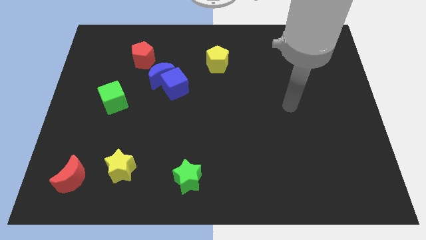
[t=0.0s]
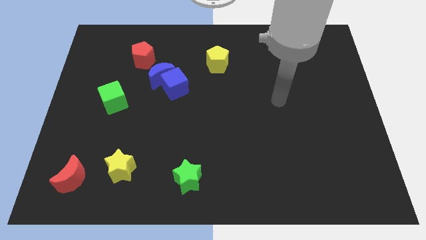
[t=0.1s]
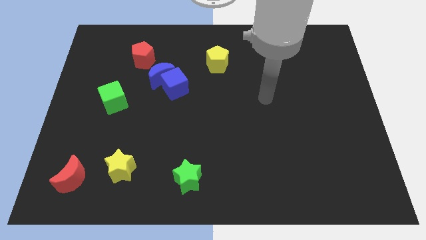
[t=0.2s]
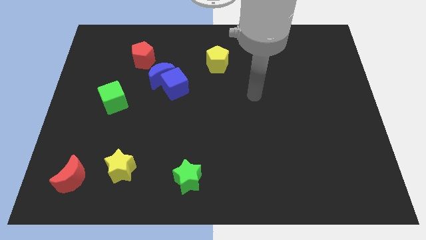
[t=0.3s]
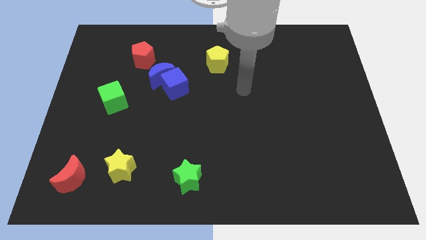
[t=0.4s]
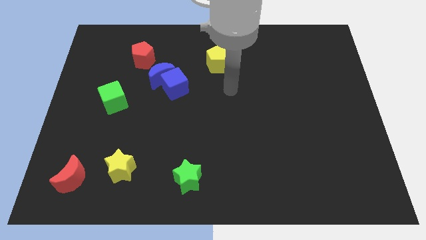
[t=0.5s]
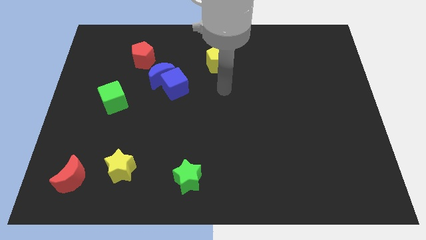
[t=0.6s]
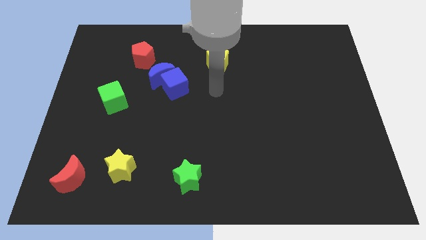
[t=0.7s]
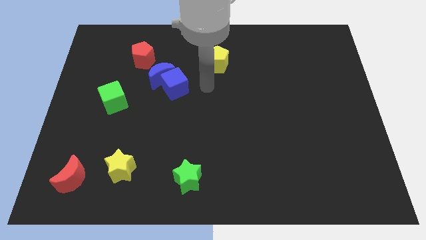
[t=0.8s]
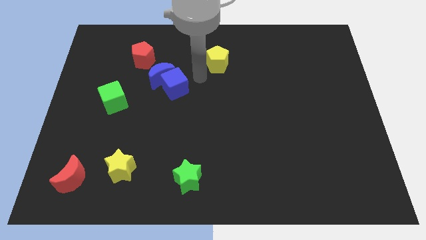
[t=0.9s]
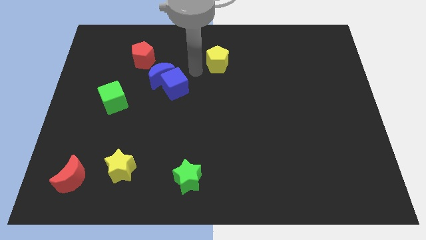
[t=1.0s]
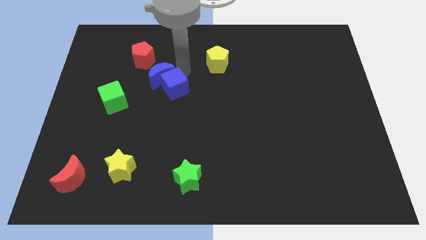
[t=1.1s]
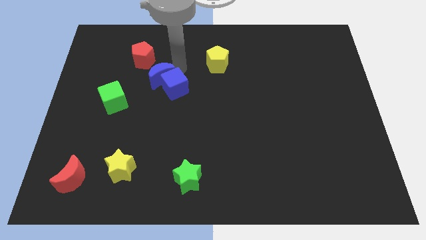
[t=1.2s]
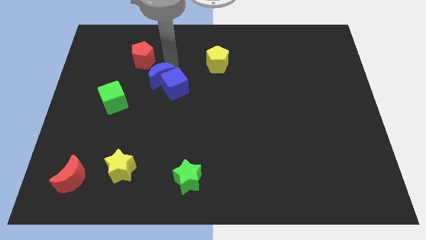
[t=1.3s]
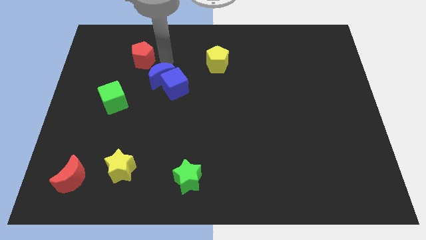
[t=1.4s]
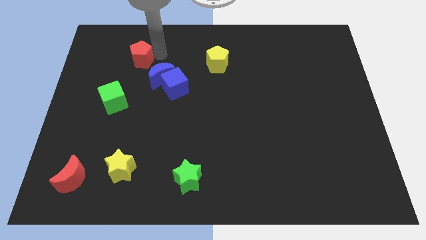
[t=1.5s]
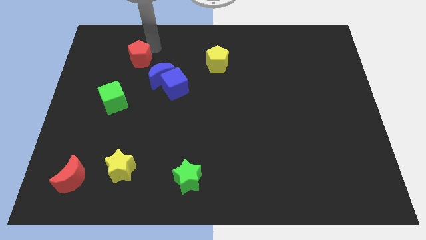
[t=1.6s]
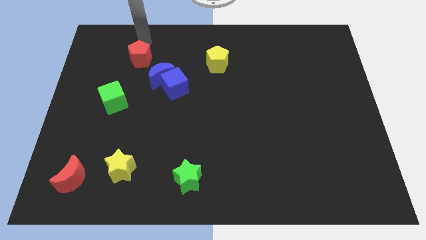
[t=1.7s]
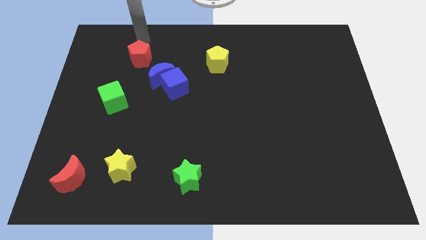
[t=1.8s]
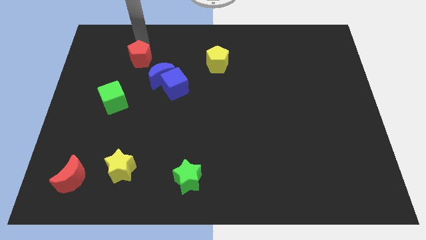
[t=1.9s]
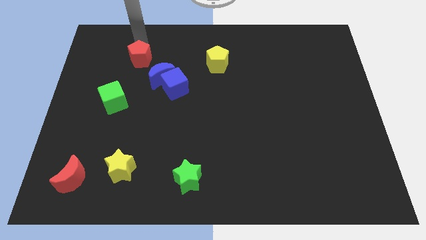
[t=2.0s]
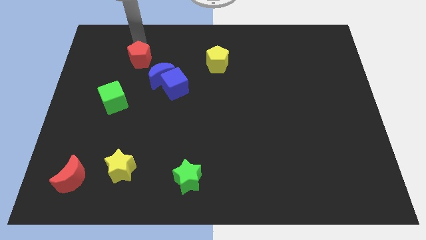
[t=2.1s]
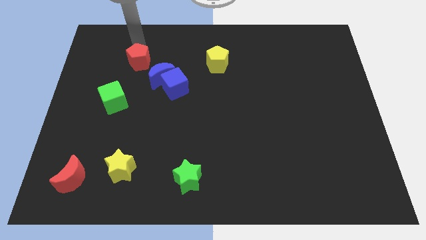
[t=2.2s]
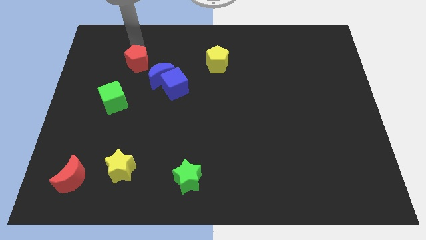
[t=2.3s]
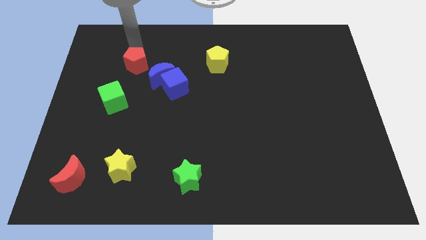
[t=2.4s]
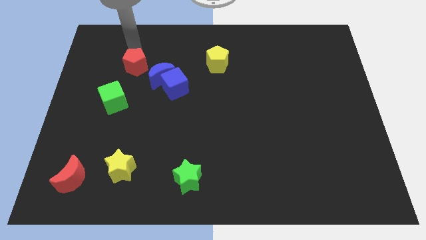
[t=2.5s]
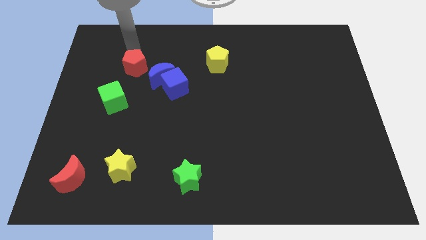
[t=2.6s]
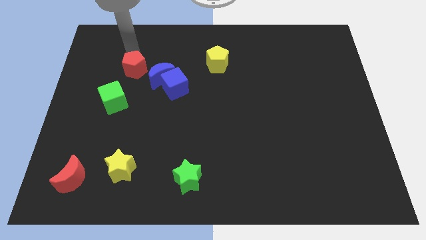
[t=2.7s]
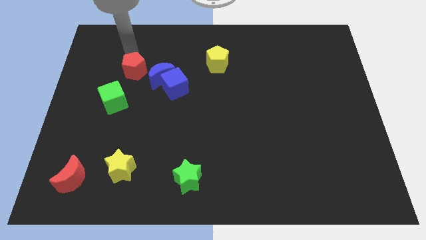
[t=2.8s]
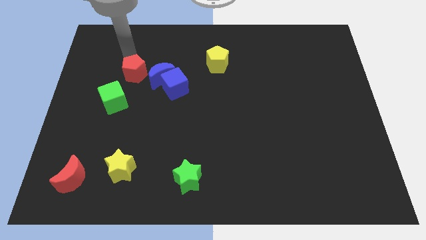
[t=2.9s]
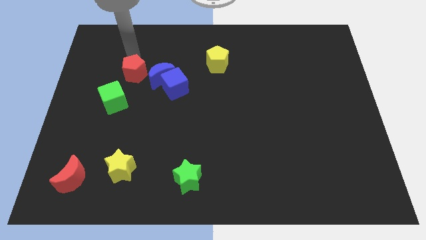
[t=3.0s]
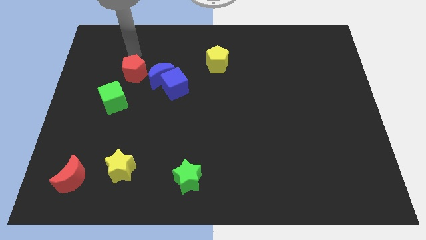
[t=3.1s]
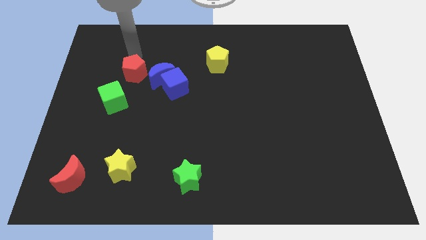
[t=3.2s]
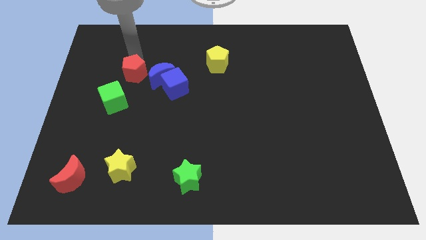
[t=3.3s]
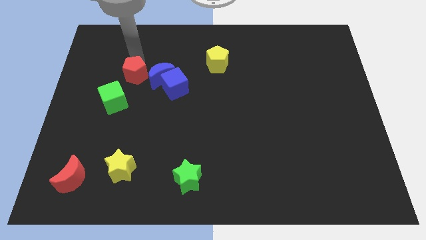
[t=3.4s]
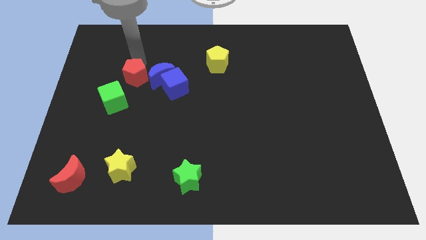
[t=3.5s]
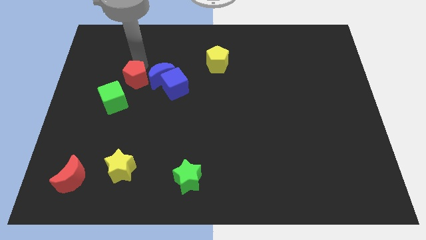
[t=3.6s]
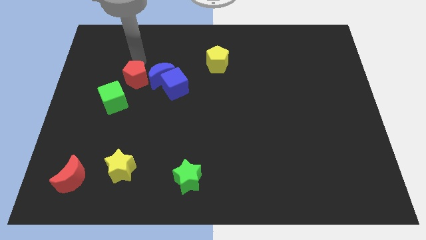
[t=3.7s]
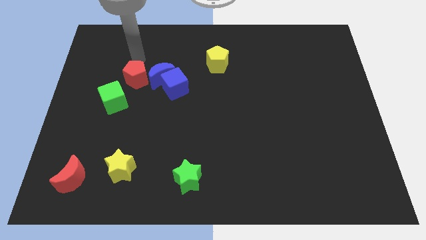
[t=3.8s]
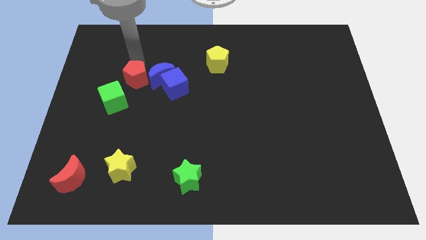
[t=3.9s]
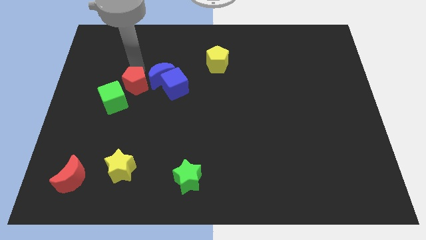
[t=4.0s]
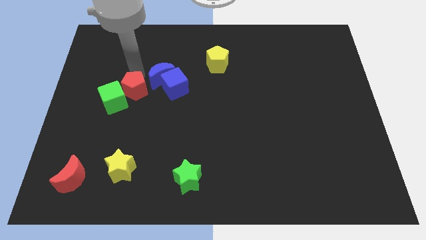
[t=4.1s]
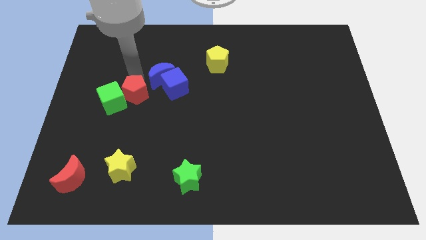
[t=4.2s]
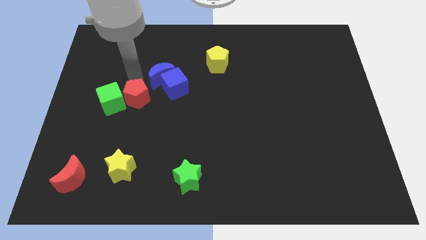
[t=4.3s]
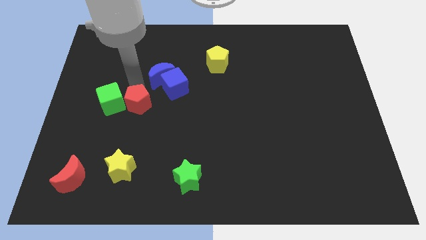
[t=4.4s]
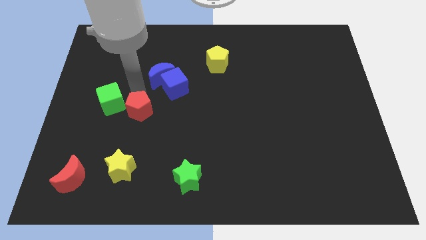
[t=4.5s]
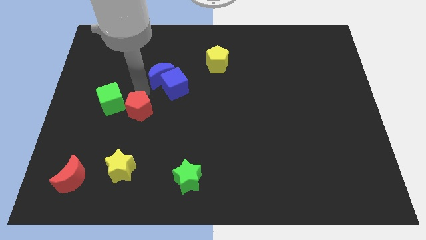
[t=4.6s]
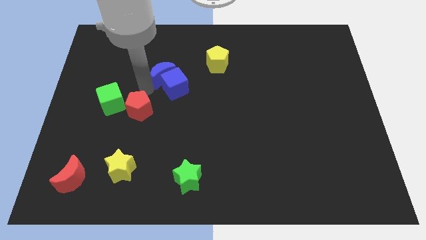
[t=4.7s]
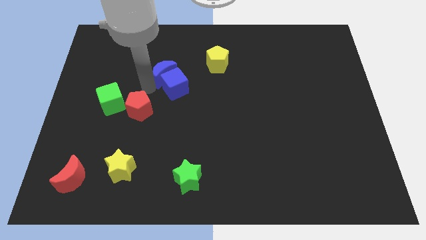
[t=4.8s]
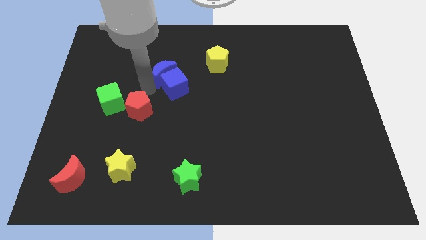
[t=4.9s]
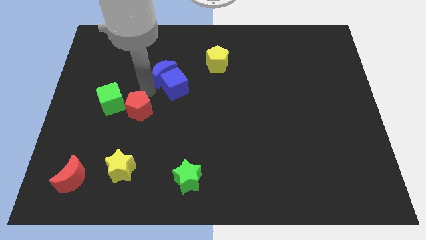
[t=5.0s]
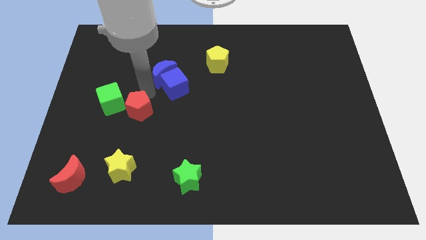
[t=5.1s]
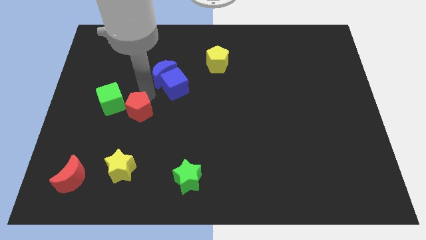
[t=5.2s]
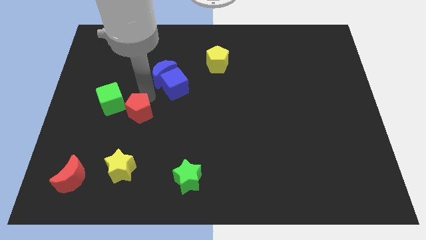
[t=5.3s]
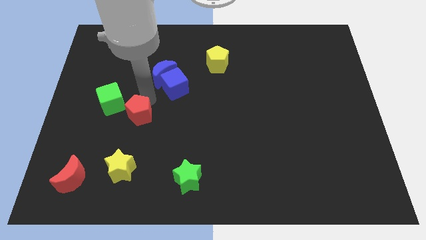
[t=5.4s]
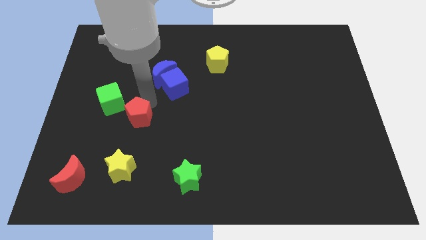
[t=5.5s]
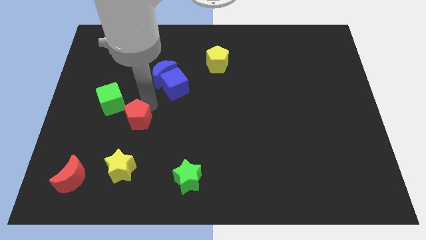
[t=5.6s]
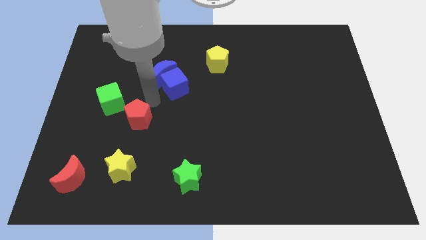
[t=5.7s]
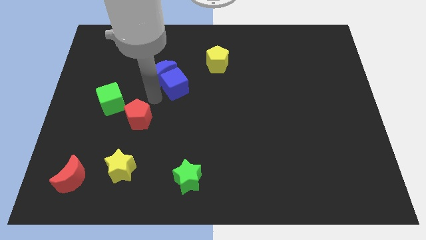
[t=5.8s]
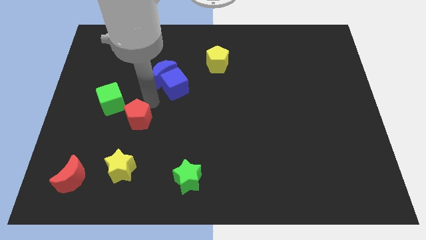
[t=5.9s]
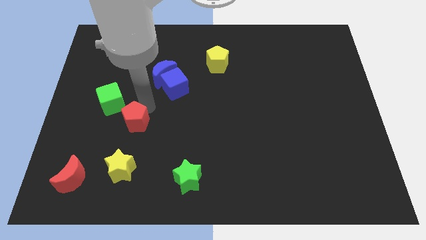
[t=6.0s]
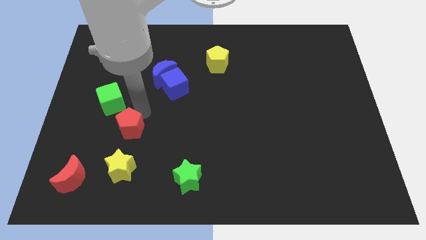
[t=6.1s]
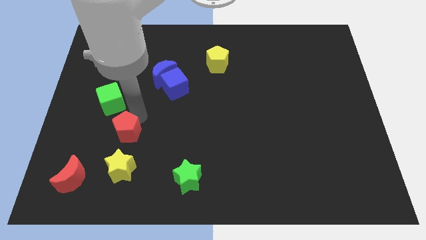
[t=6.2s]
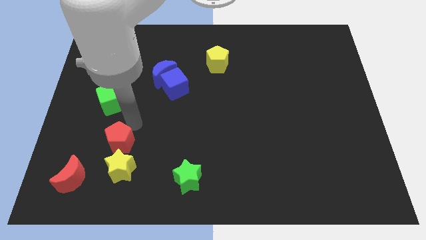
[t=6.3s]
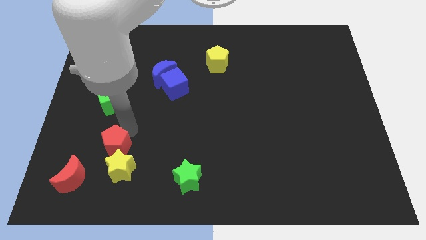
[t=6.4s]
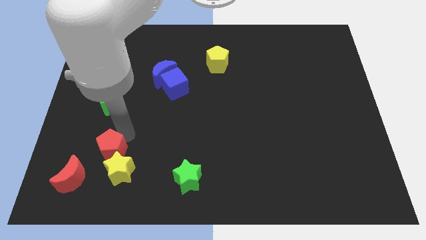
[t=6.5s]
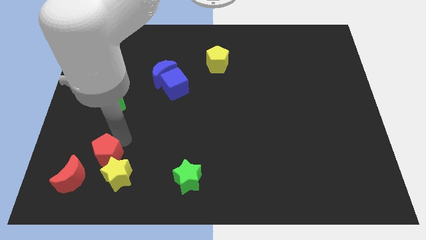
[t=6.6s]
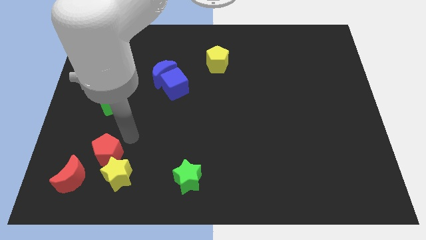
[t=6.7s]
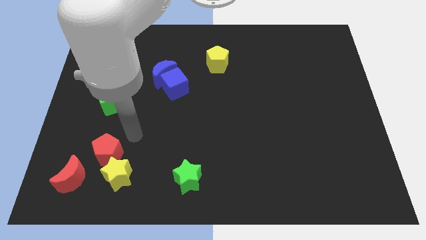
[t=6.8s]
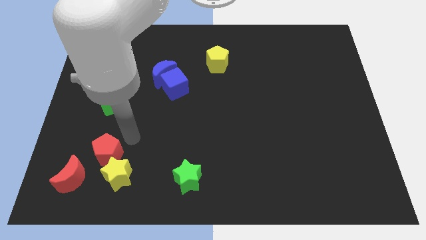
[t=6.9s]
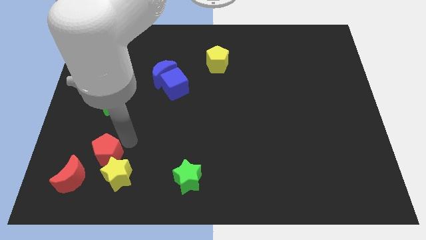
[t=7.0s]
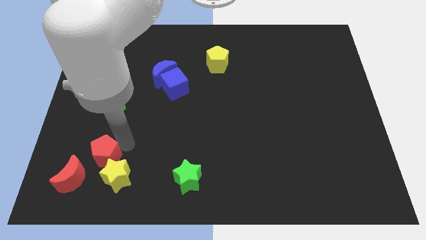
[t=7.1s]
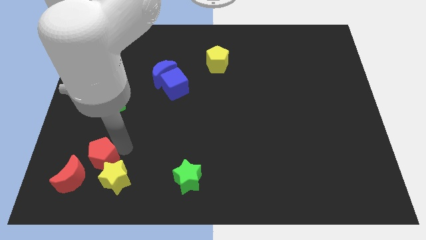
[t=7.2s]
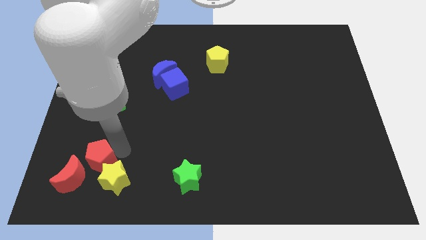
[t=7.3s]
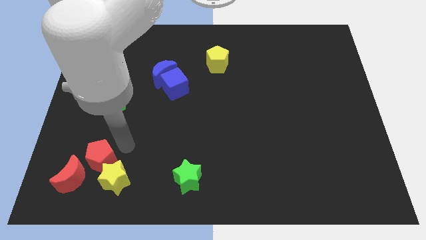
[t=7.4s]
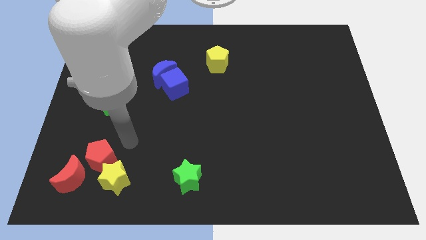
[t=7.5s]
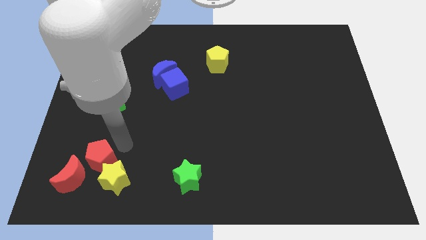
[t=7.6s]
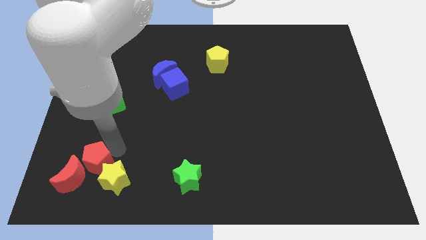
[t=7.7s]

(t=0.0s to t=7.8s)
push the red pentagon to the red moon
